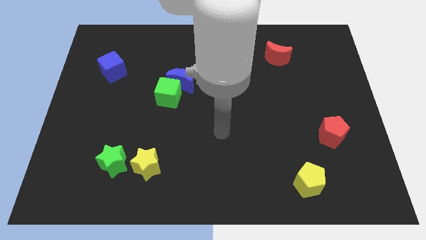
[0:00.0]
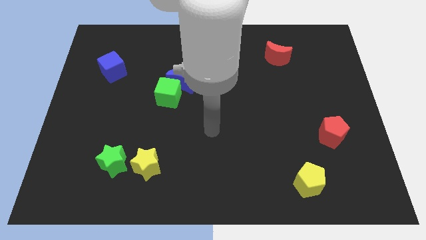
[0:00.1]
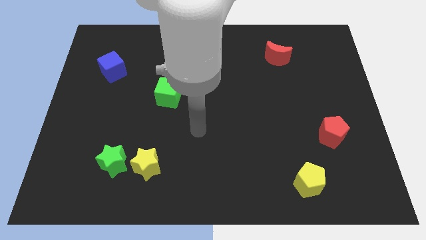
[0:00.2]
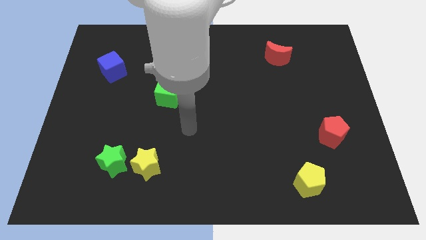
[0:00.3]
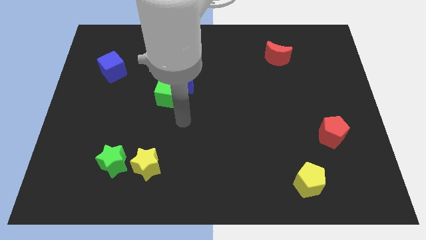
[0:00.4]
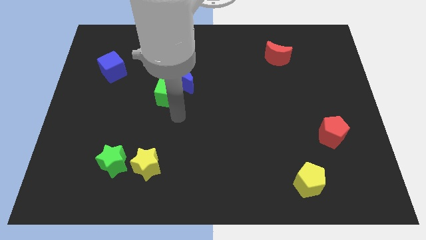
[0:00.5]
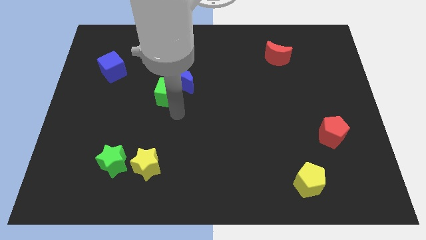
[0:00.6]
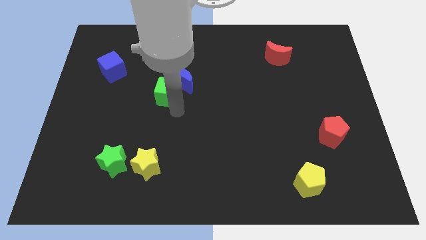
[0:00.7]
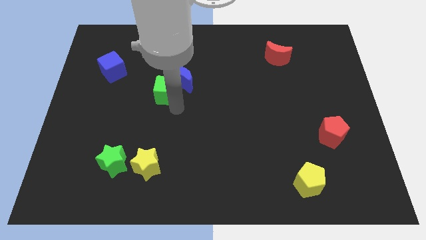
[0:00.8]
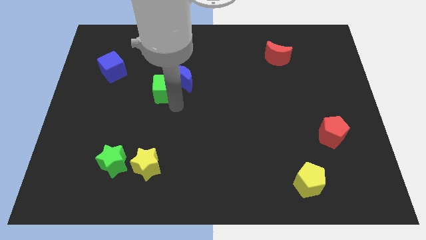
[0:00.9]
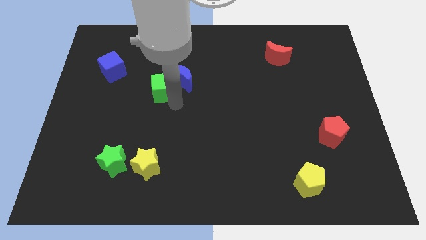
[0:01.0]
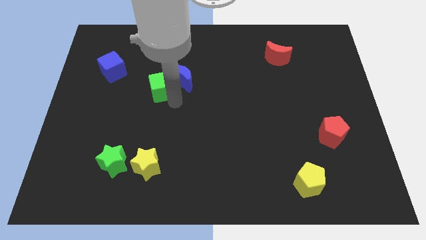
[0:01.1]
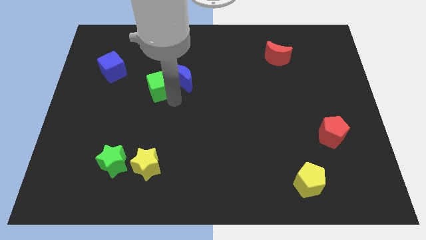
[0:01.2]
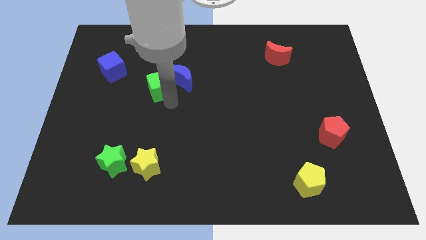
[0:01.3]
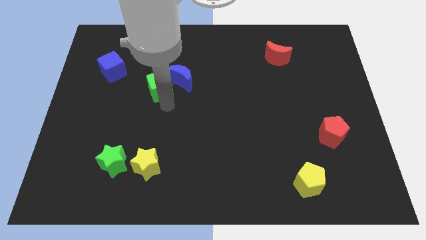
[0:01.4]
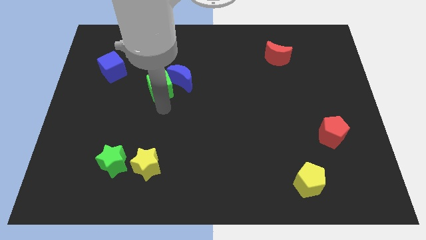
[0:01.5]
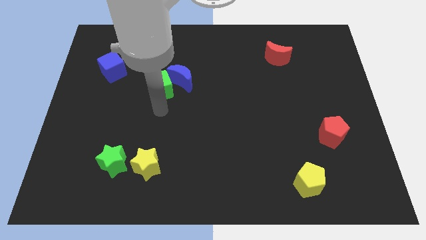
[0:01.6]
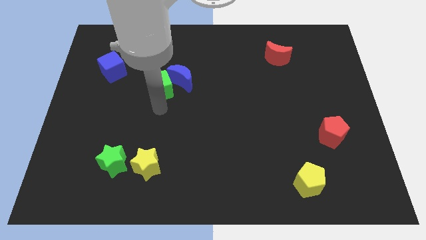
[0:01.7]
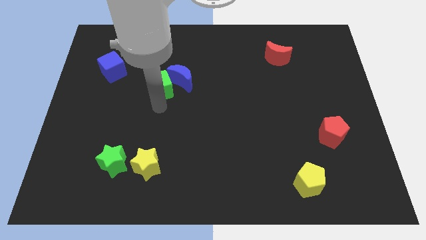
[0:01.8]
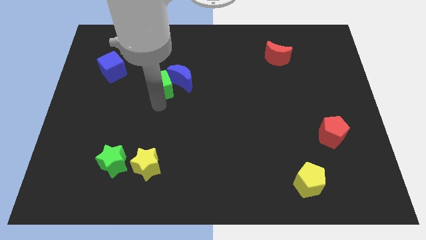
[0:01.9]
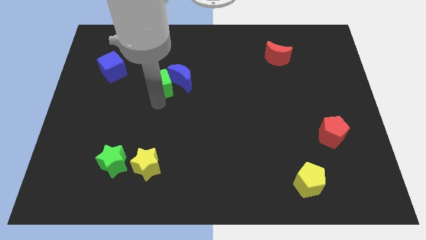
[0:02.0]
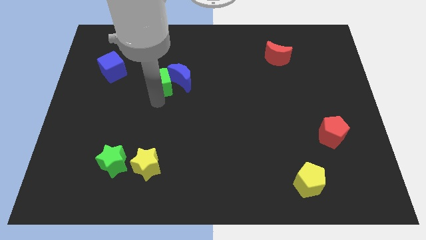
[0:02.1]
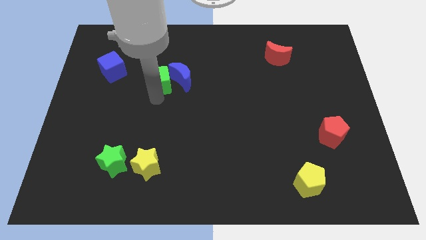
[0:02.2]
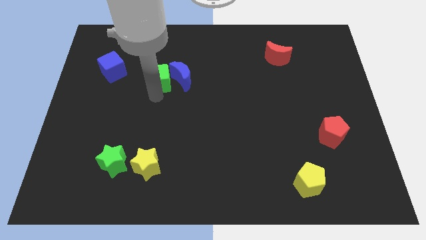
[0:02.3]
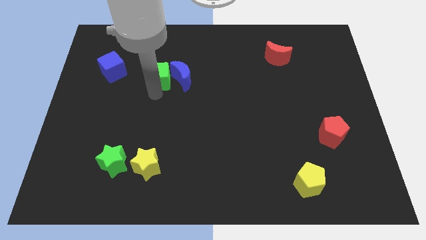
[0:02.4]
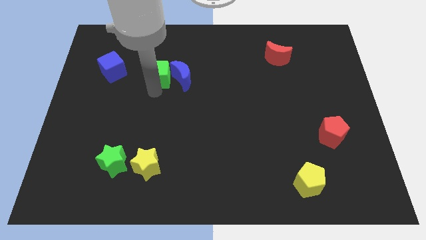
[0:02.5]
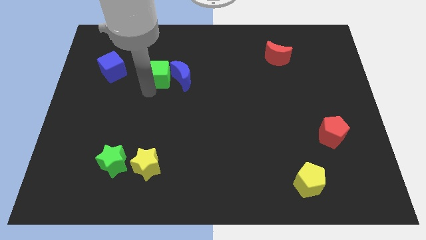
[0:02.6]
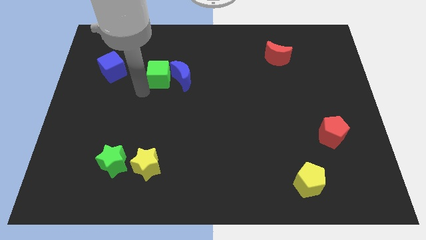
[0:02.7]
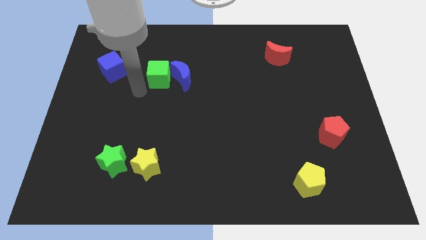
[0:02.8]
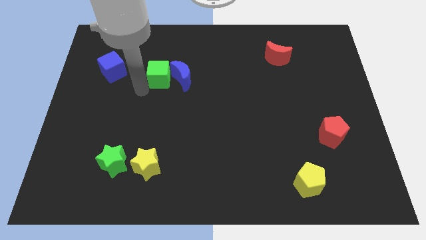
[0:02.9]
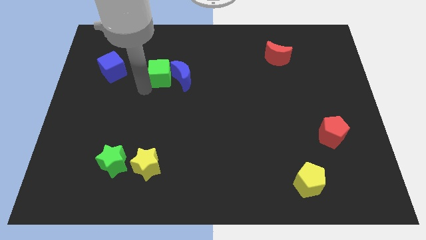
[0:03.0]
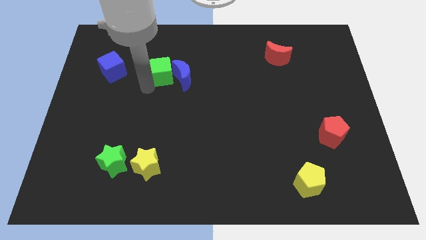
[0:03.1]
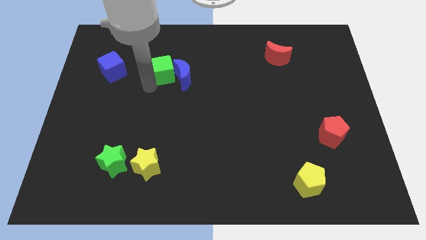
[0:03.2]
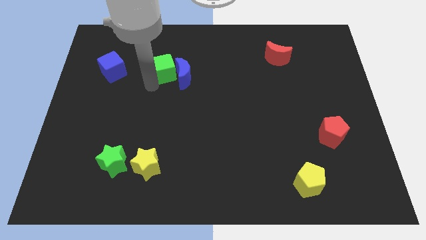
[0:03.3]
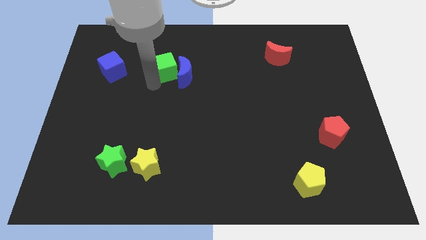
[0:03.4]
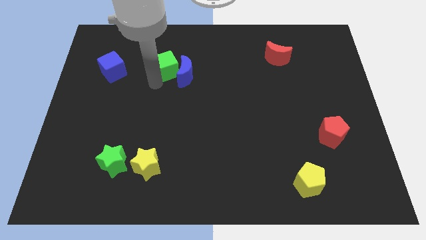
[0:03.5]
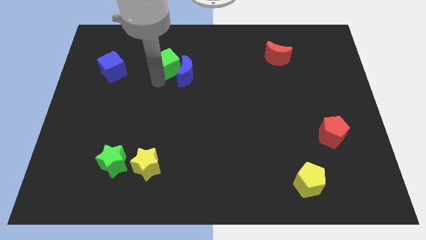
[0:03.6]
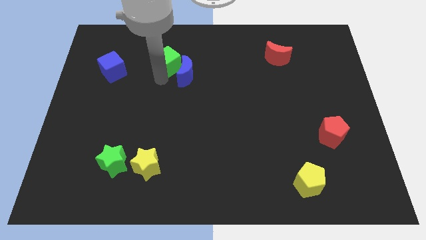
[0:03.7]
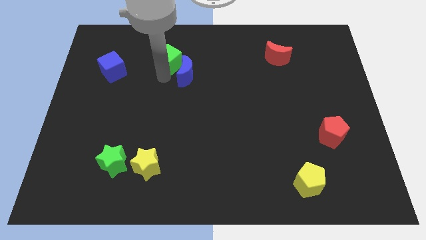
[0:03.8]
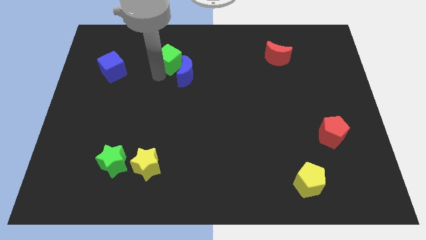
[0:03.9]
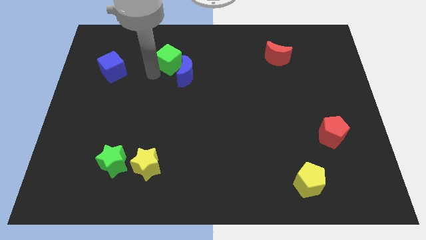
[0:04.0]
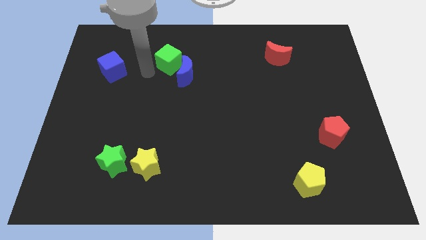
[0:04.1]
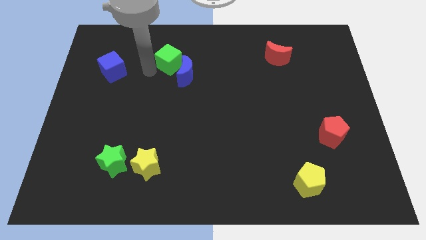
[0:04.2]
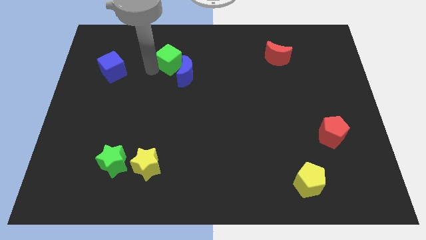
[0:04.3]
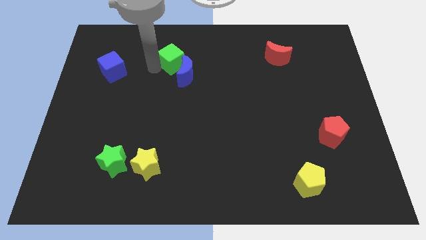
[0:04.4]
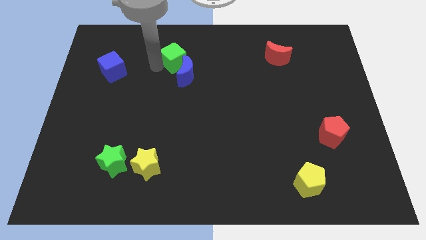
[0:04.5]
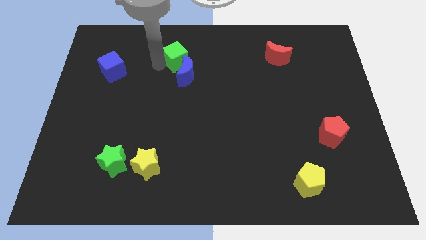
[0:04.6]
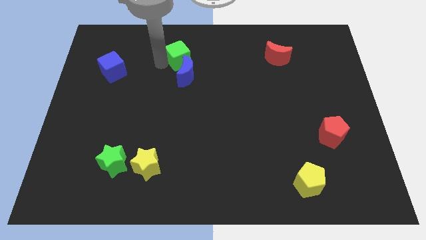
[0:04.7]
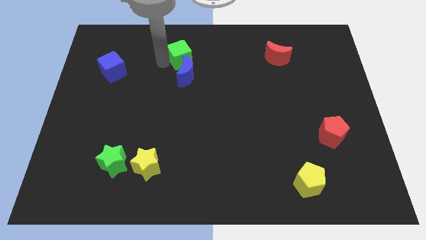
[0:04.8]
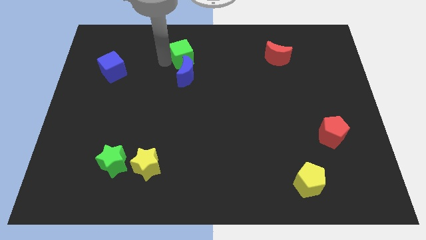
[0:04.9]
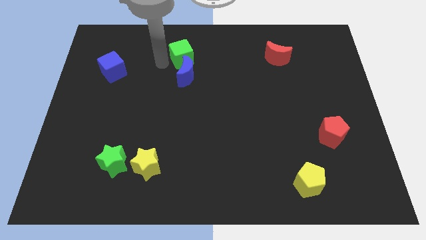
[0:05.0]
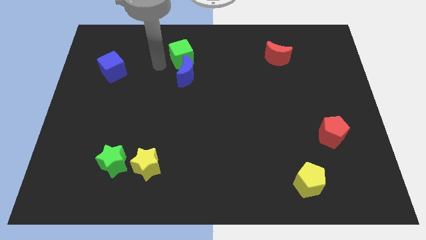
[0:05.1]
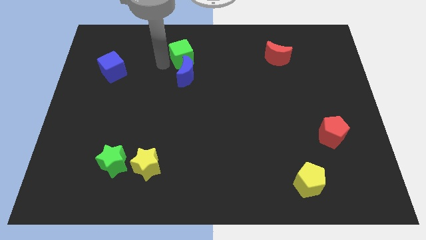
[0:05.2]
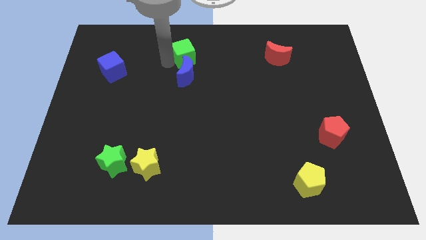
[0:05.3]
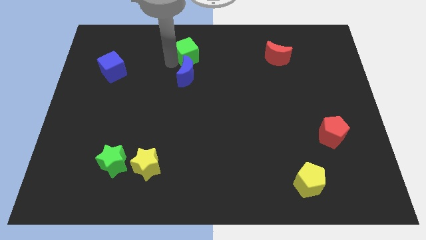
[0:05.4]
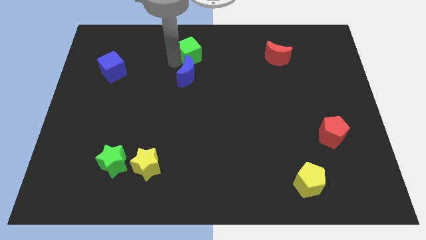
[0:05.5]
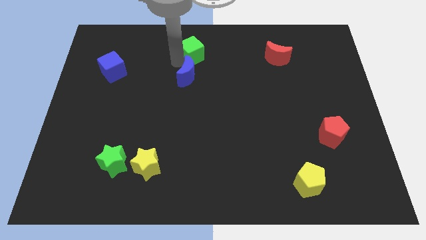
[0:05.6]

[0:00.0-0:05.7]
move the green cube to the top

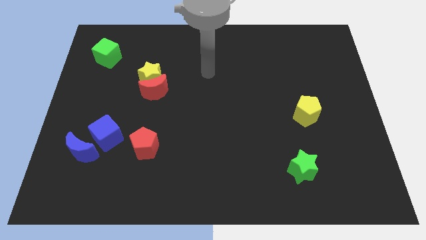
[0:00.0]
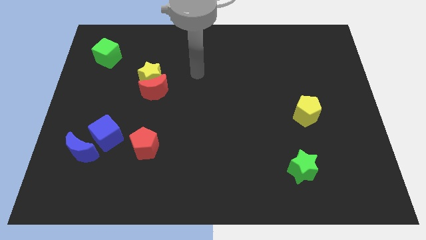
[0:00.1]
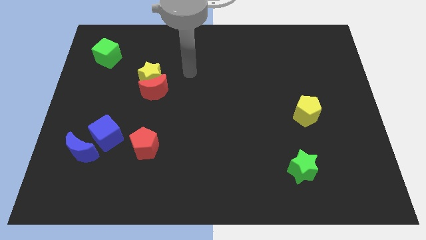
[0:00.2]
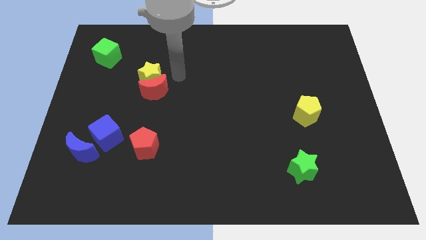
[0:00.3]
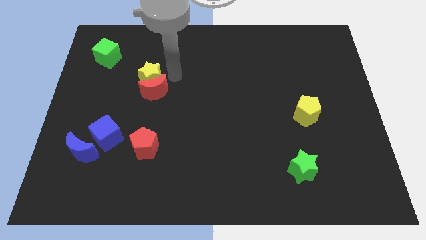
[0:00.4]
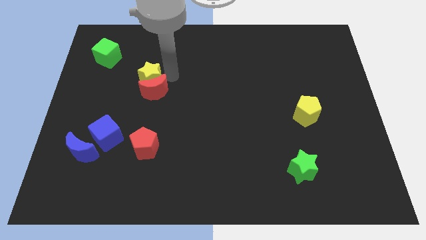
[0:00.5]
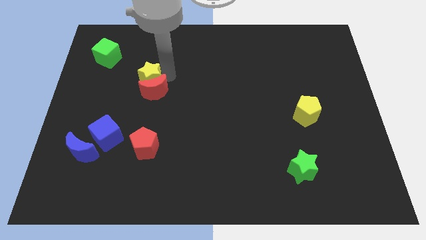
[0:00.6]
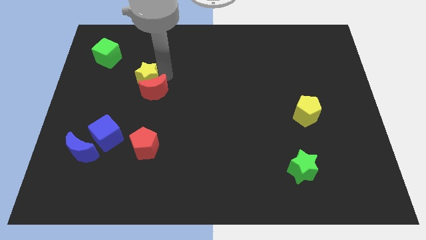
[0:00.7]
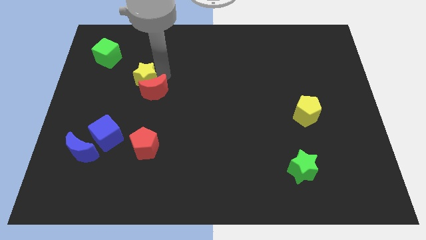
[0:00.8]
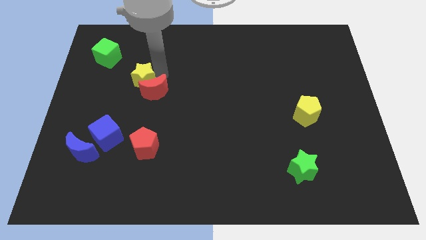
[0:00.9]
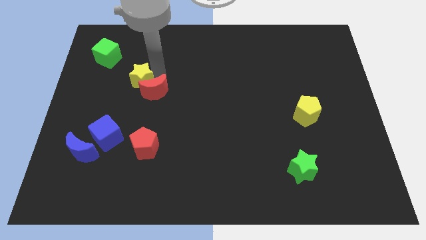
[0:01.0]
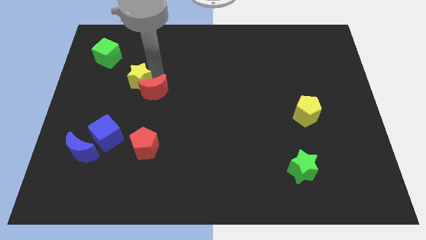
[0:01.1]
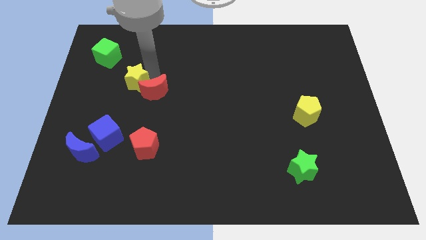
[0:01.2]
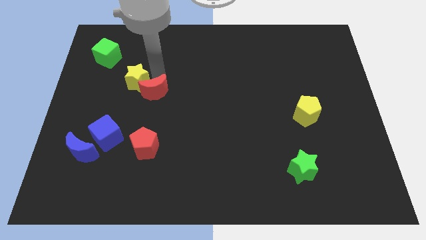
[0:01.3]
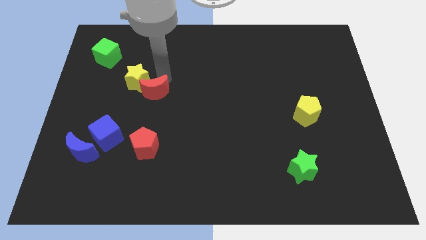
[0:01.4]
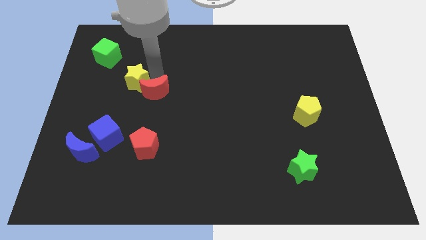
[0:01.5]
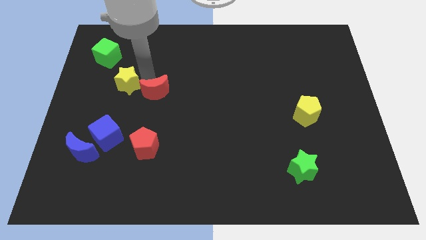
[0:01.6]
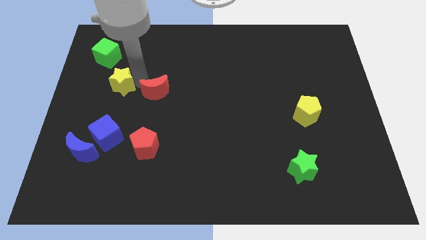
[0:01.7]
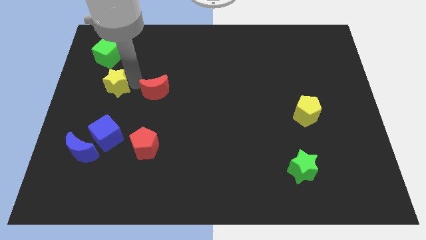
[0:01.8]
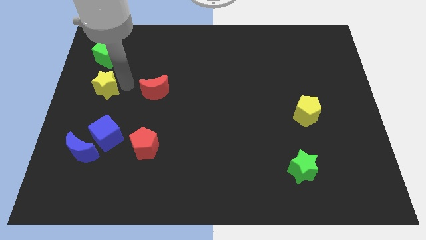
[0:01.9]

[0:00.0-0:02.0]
slide the yellow star to the center left

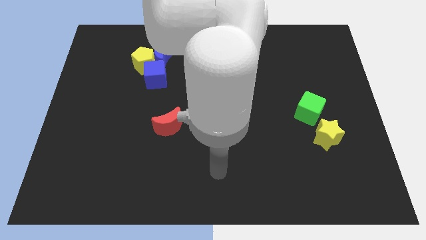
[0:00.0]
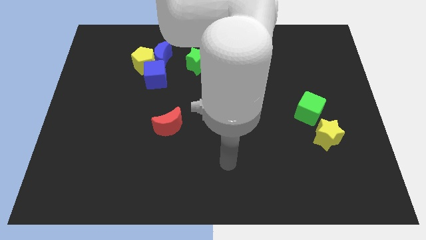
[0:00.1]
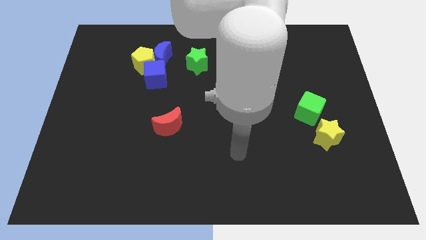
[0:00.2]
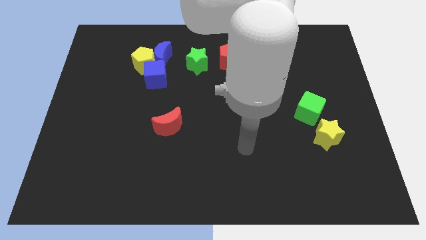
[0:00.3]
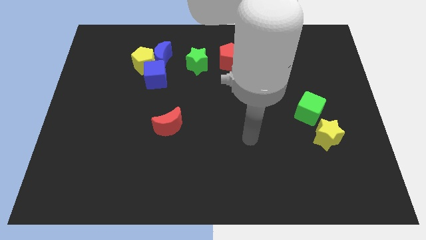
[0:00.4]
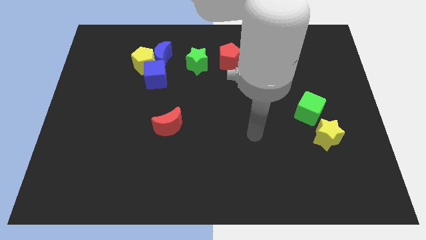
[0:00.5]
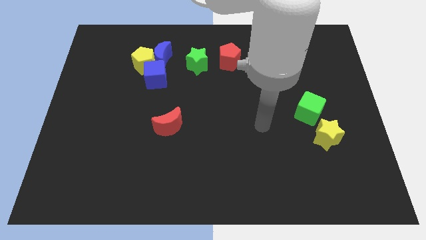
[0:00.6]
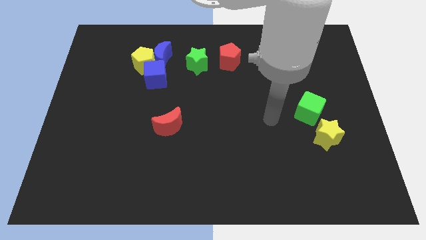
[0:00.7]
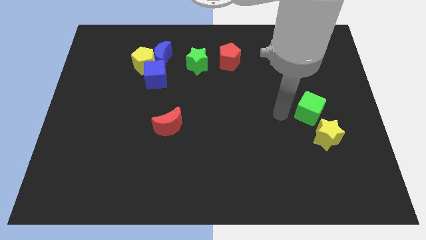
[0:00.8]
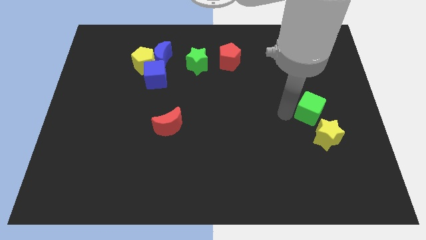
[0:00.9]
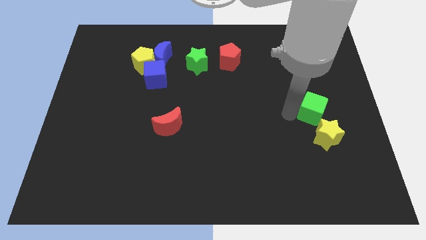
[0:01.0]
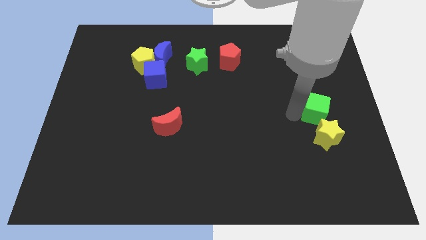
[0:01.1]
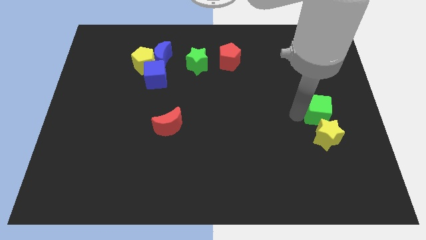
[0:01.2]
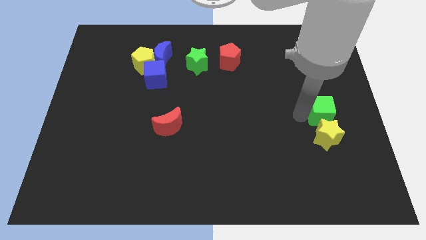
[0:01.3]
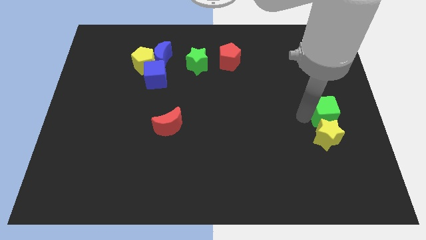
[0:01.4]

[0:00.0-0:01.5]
slide the green cube to the right side of the board
